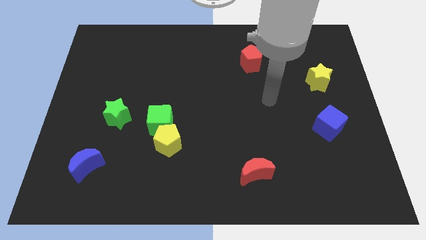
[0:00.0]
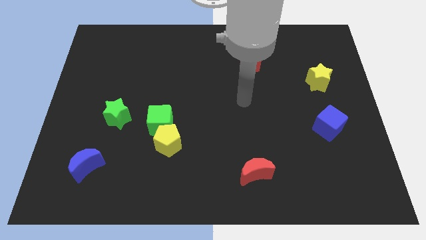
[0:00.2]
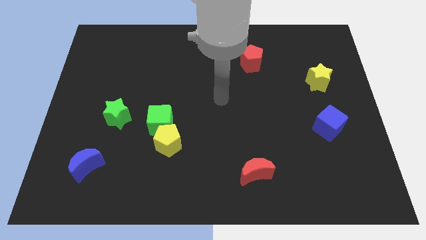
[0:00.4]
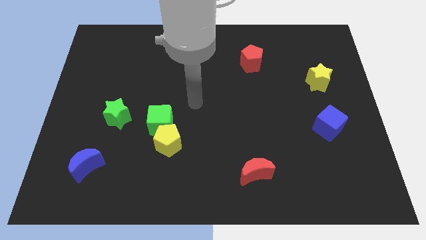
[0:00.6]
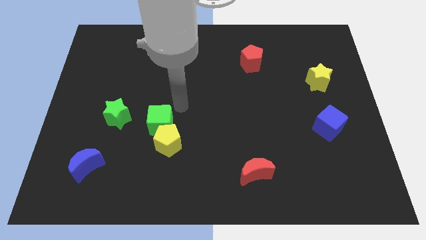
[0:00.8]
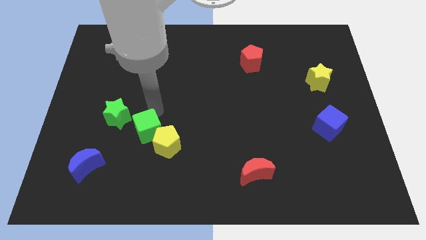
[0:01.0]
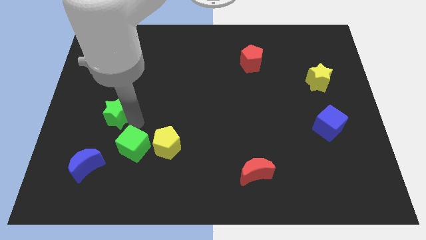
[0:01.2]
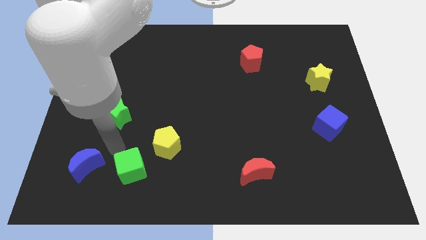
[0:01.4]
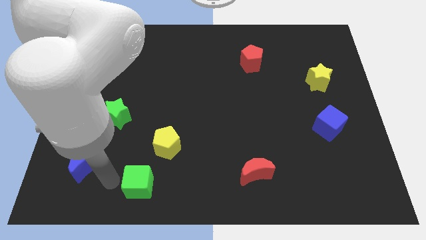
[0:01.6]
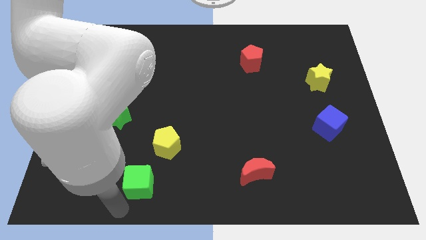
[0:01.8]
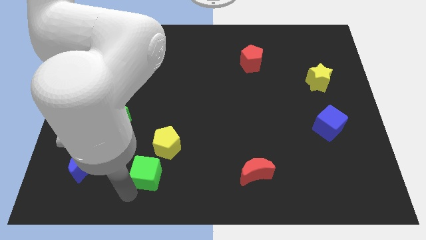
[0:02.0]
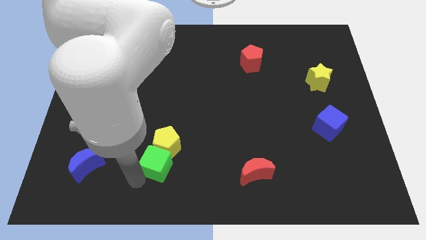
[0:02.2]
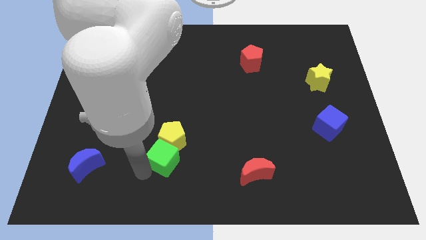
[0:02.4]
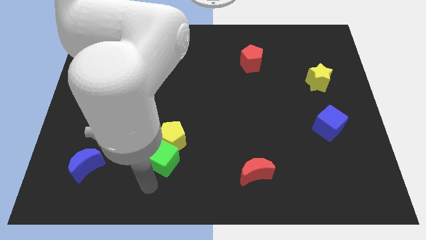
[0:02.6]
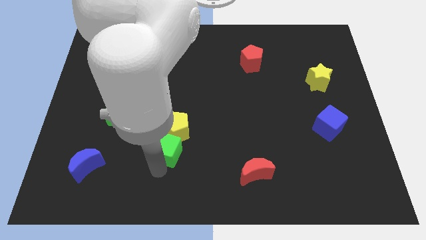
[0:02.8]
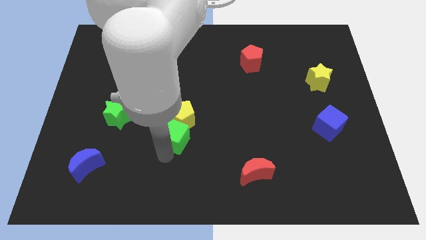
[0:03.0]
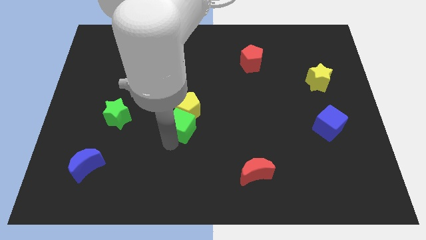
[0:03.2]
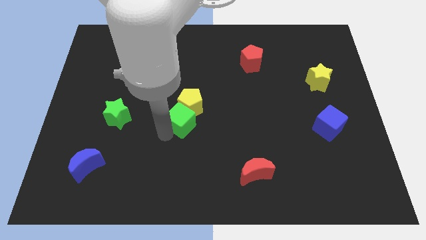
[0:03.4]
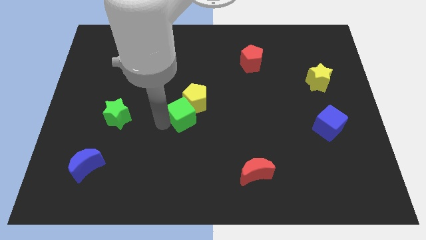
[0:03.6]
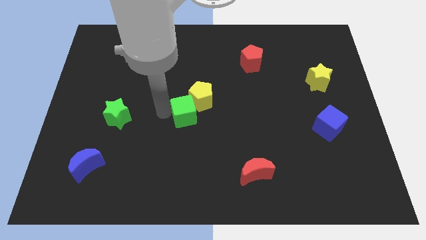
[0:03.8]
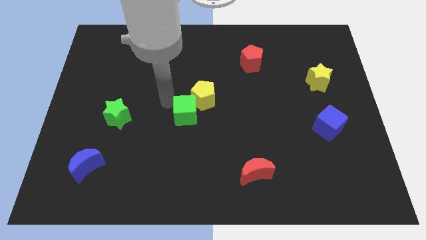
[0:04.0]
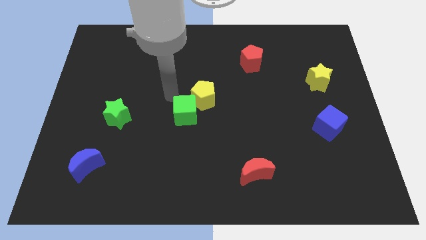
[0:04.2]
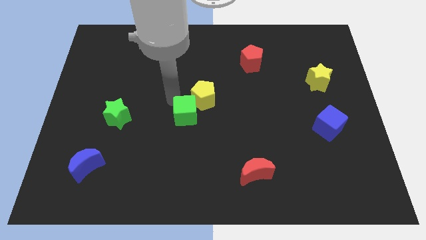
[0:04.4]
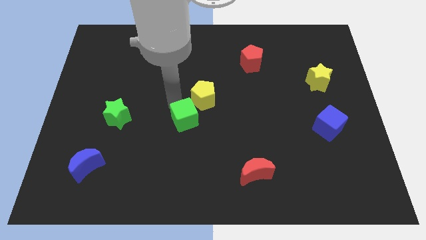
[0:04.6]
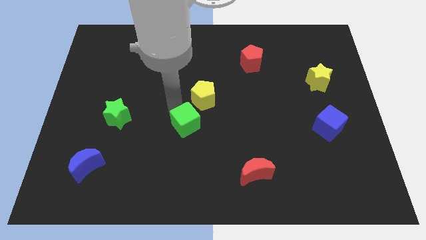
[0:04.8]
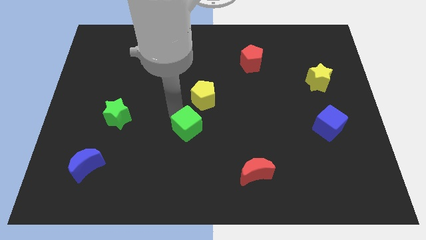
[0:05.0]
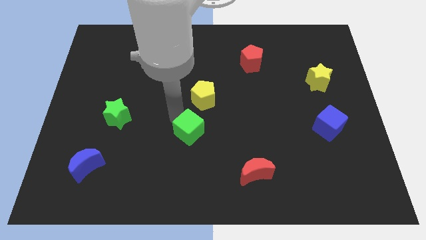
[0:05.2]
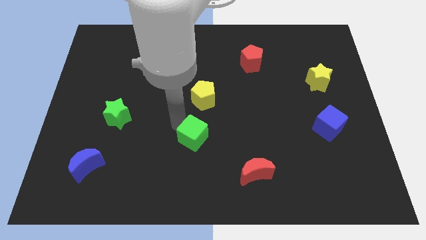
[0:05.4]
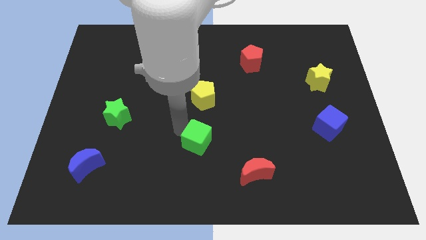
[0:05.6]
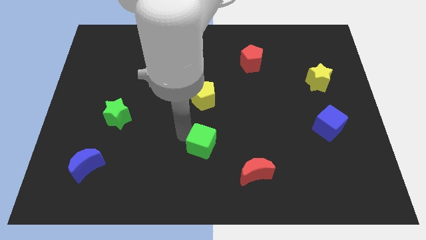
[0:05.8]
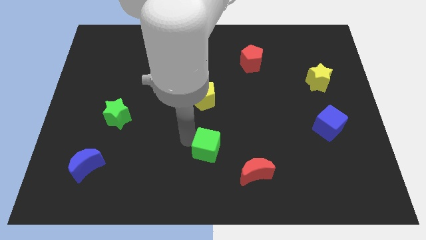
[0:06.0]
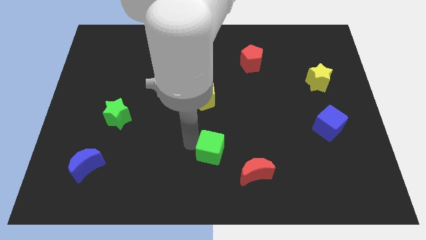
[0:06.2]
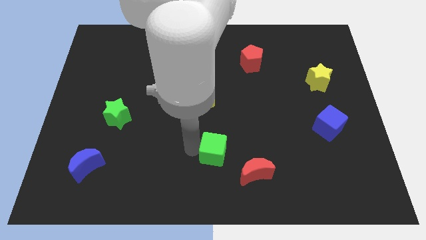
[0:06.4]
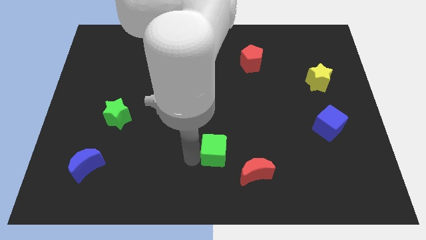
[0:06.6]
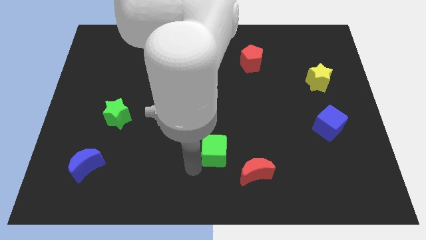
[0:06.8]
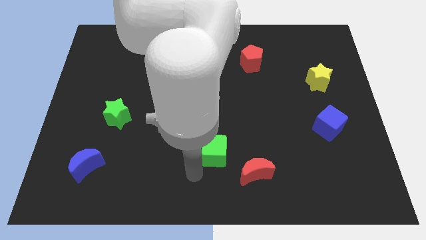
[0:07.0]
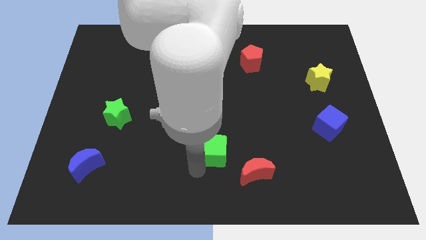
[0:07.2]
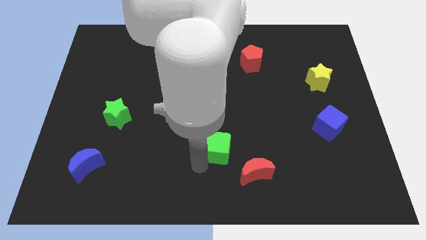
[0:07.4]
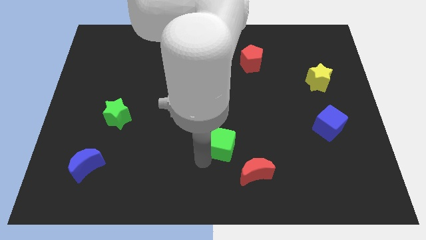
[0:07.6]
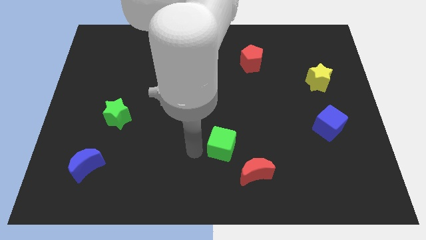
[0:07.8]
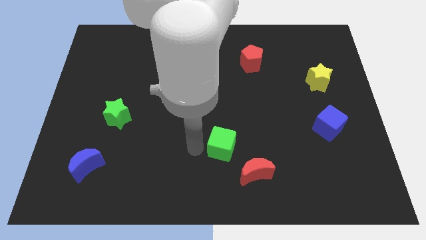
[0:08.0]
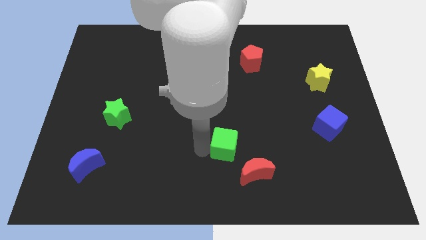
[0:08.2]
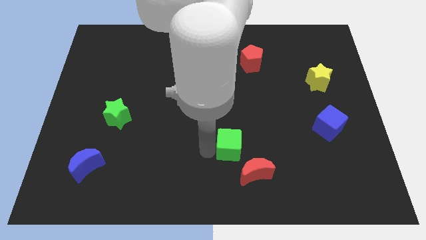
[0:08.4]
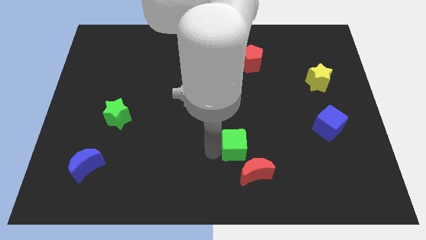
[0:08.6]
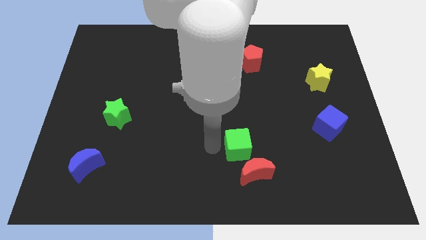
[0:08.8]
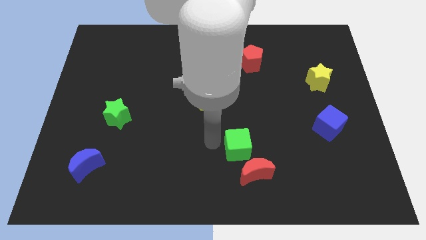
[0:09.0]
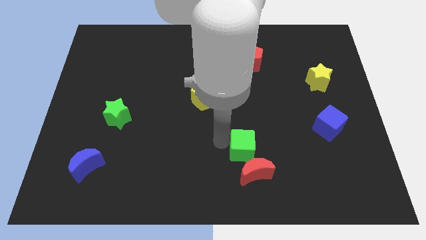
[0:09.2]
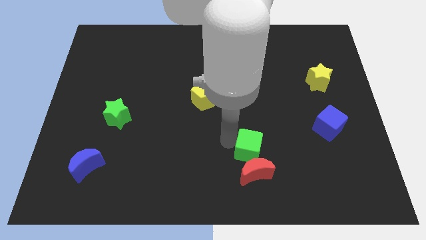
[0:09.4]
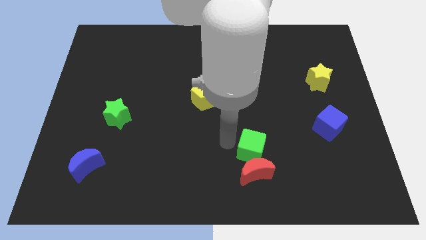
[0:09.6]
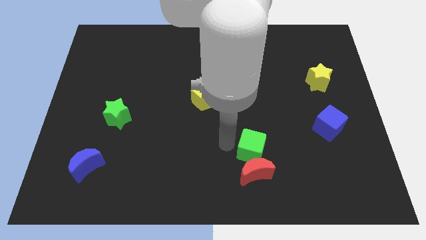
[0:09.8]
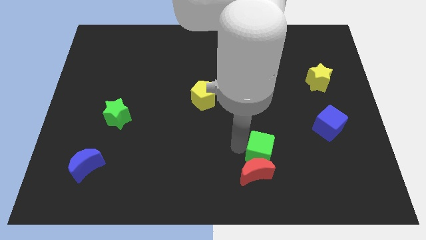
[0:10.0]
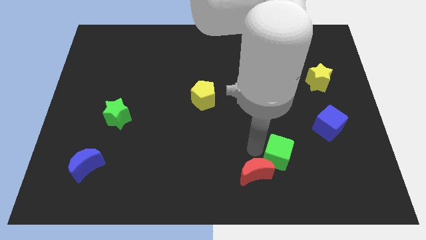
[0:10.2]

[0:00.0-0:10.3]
move the green cube just right of the red moon

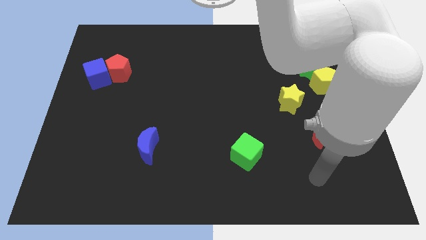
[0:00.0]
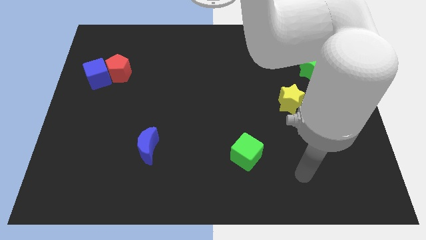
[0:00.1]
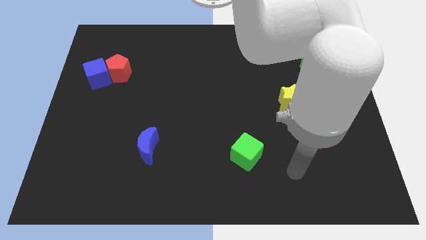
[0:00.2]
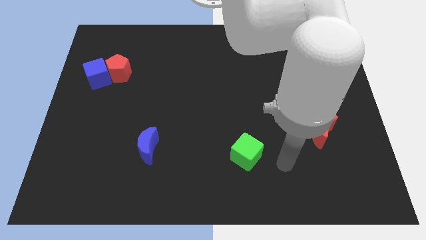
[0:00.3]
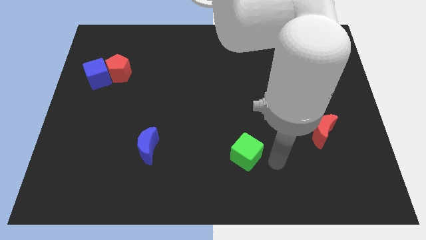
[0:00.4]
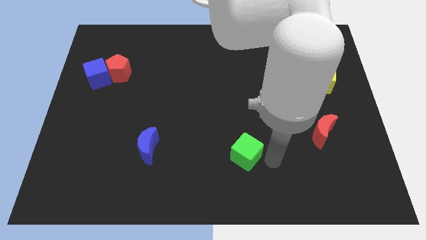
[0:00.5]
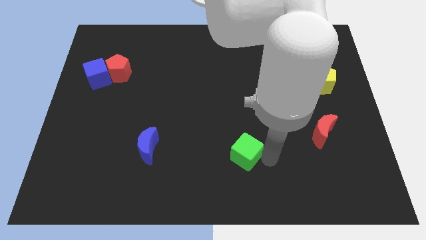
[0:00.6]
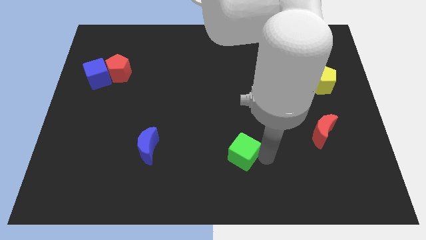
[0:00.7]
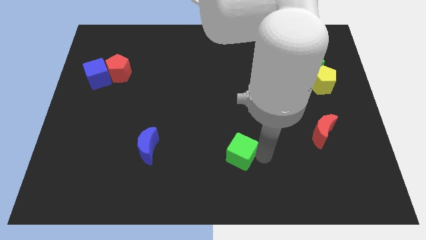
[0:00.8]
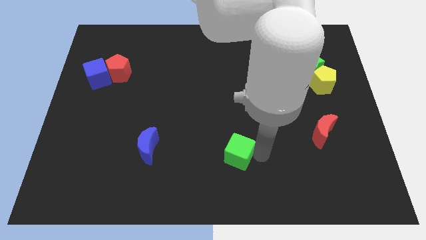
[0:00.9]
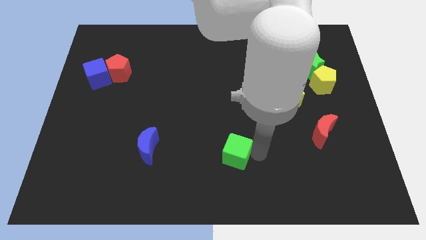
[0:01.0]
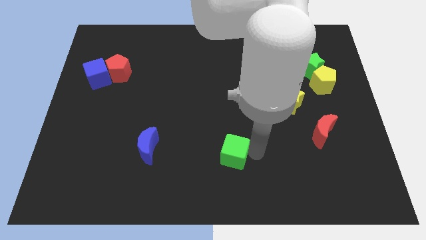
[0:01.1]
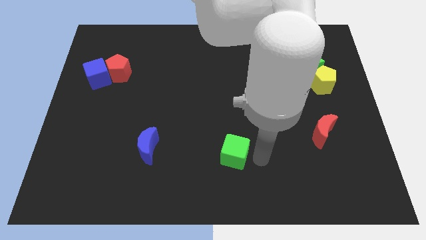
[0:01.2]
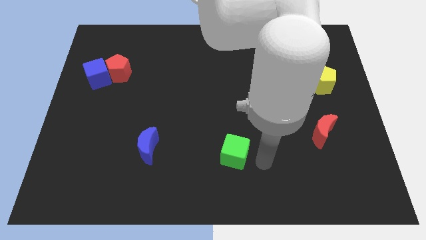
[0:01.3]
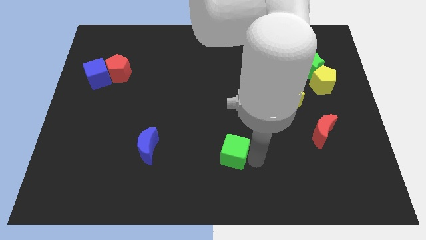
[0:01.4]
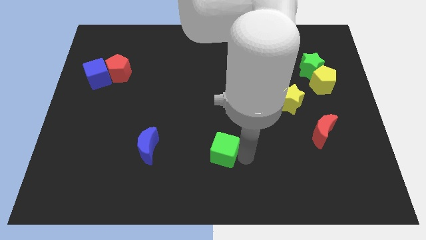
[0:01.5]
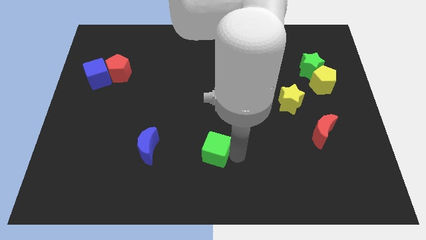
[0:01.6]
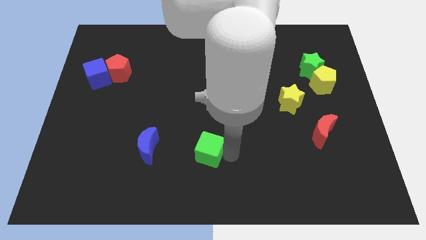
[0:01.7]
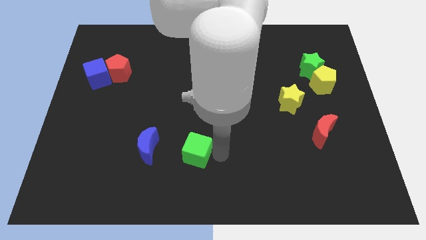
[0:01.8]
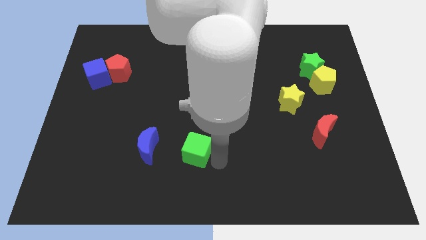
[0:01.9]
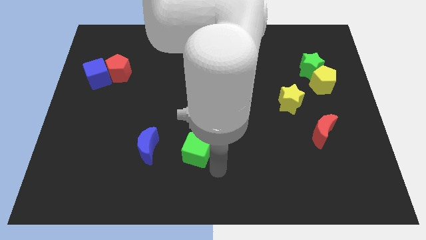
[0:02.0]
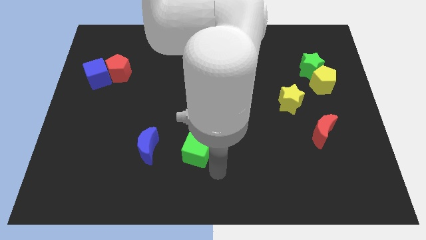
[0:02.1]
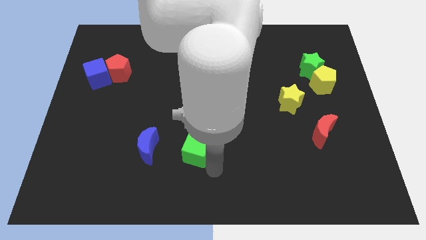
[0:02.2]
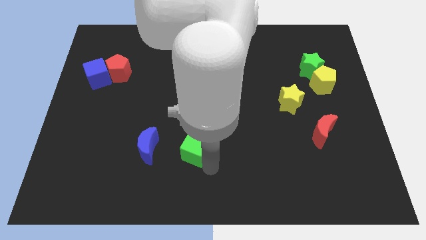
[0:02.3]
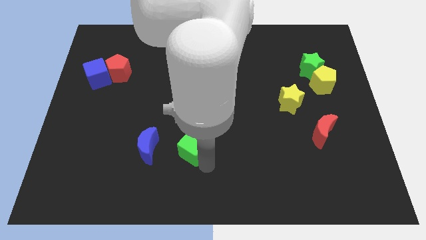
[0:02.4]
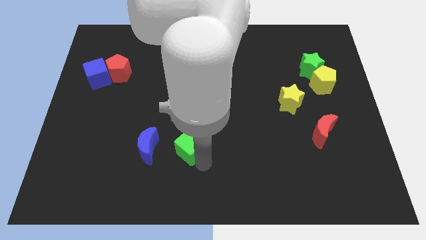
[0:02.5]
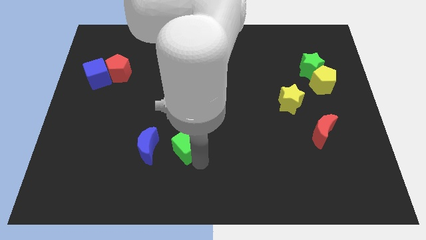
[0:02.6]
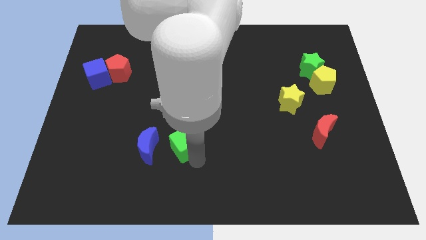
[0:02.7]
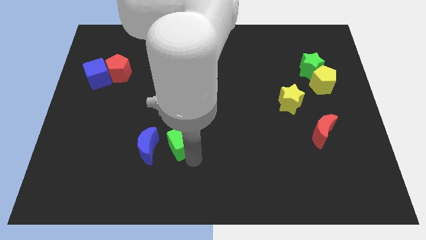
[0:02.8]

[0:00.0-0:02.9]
push the green cube diagonally up and to the right of the blue moon

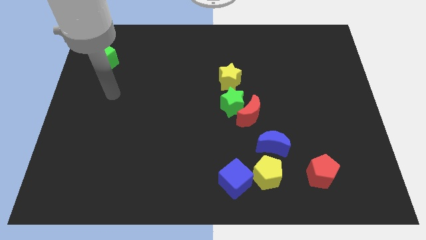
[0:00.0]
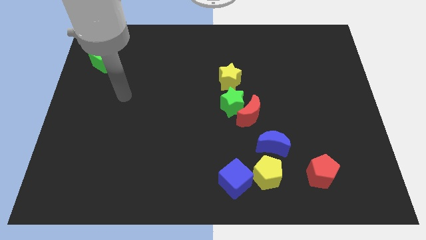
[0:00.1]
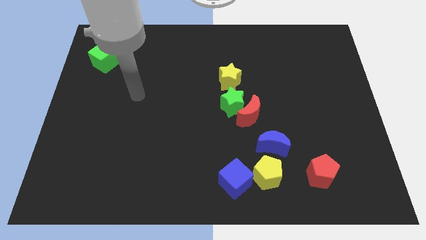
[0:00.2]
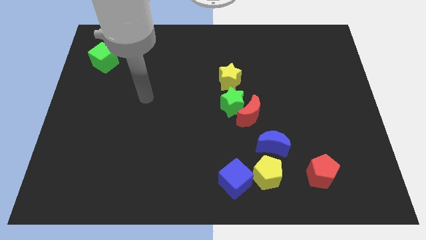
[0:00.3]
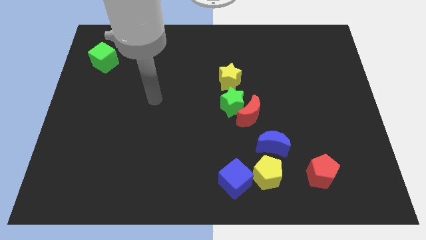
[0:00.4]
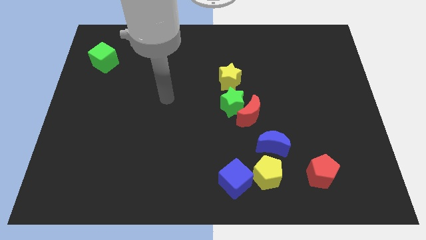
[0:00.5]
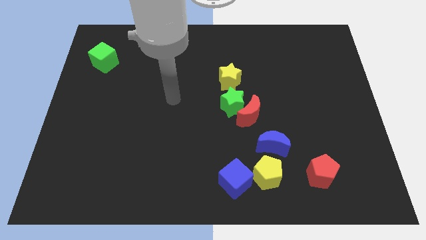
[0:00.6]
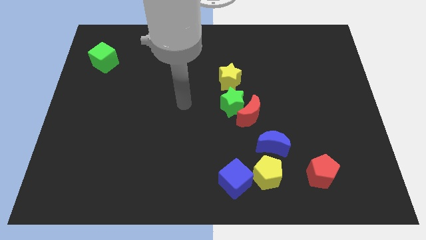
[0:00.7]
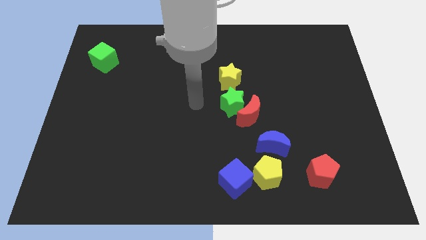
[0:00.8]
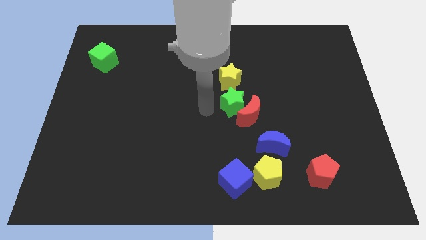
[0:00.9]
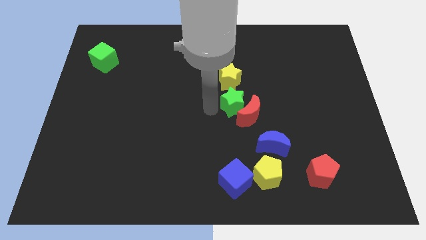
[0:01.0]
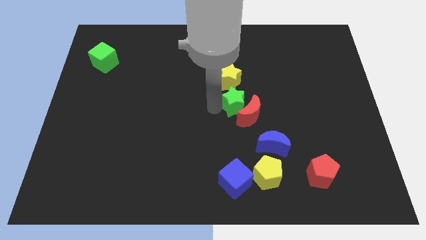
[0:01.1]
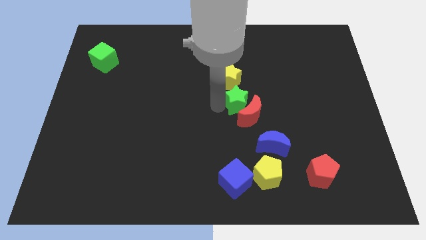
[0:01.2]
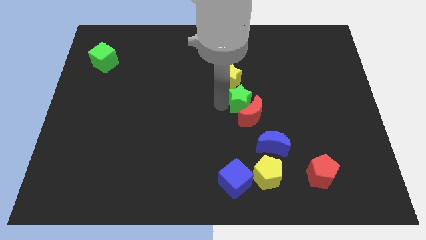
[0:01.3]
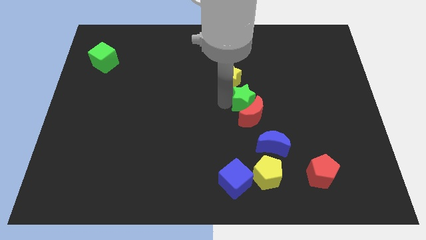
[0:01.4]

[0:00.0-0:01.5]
slide the green star to the top right of the red moon
